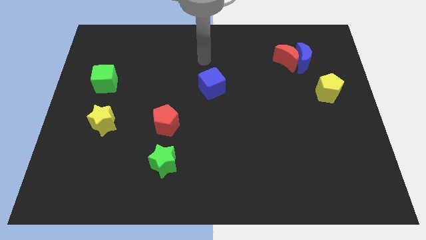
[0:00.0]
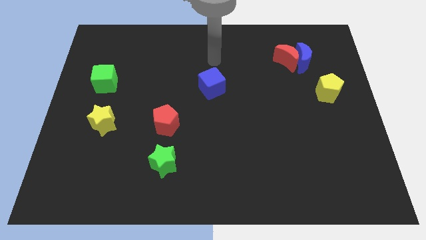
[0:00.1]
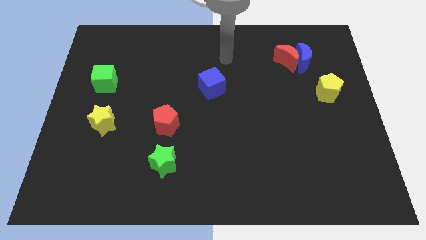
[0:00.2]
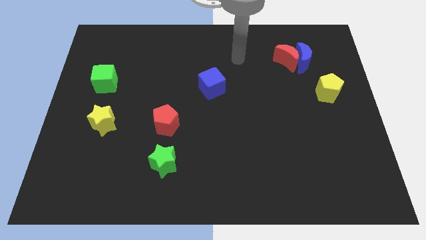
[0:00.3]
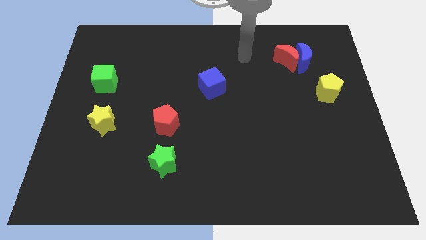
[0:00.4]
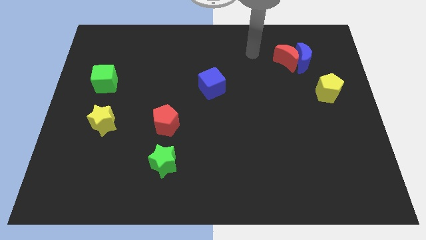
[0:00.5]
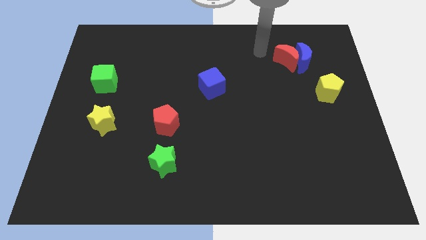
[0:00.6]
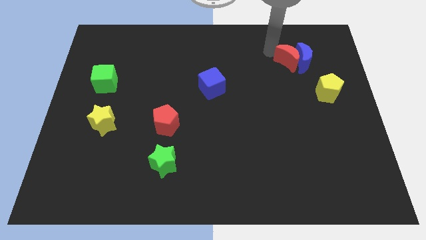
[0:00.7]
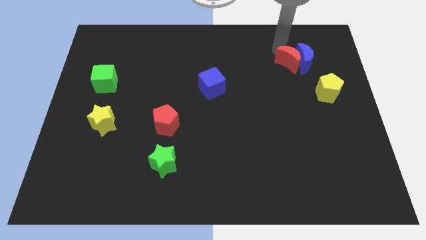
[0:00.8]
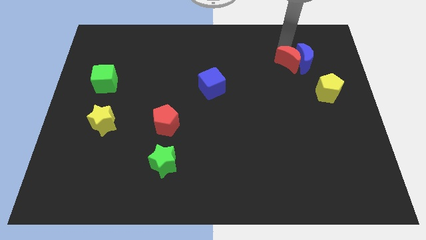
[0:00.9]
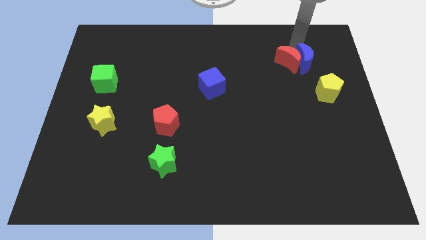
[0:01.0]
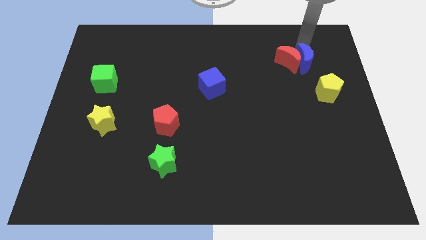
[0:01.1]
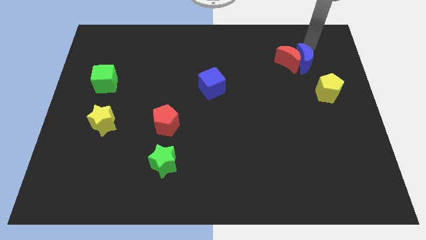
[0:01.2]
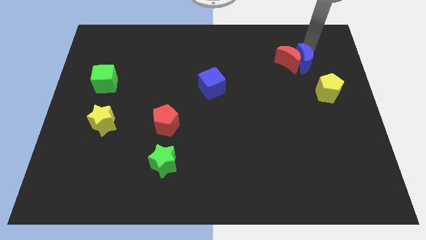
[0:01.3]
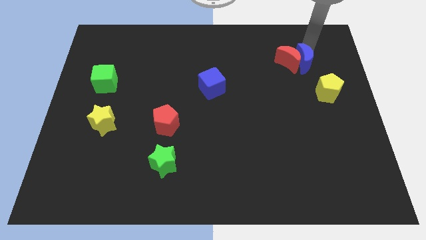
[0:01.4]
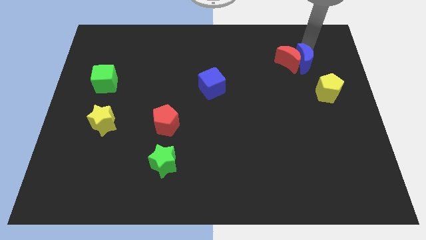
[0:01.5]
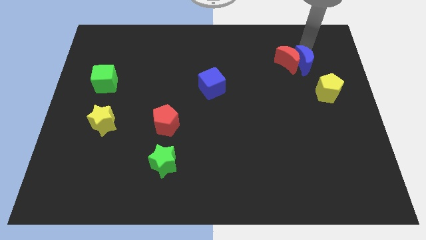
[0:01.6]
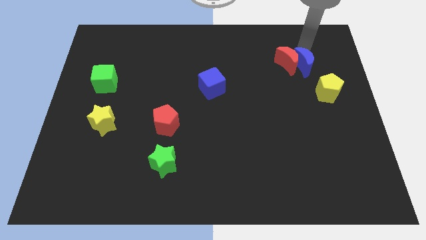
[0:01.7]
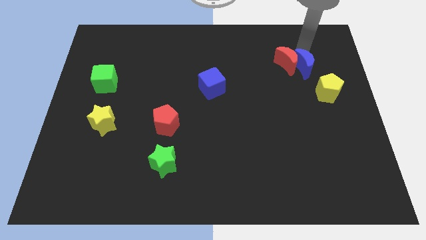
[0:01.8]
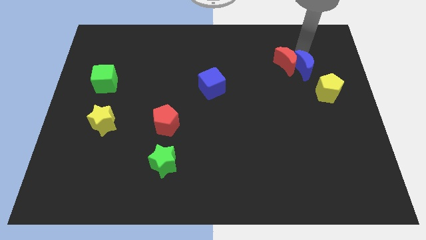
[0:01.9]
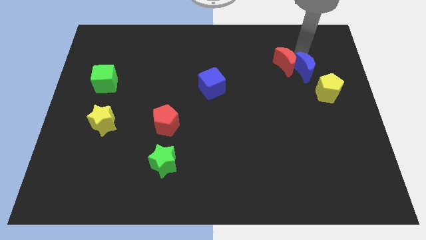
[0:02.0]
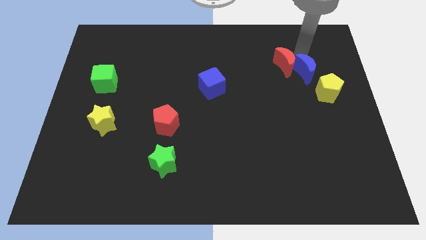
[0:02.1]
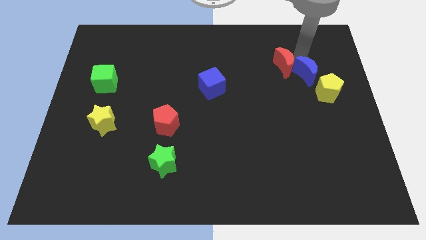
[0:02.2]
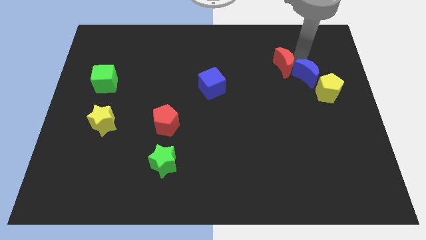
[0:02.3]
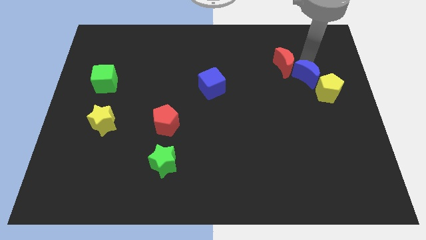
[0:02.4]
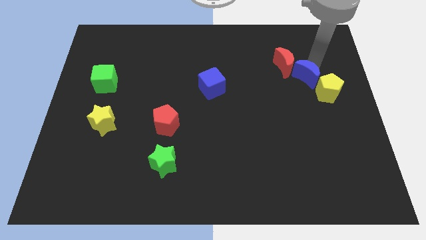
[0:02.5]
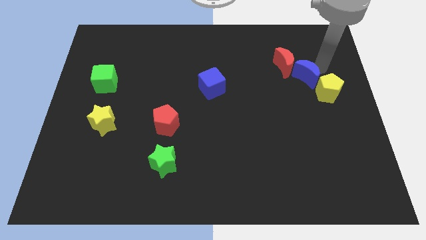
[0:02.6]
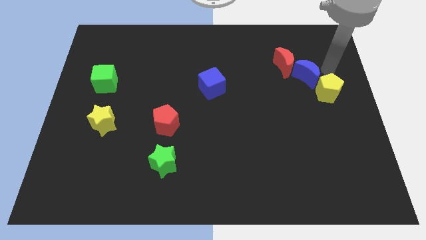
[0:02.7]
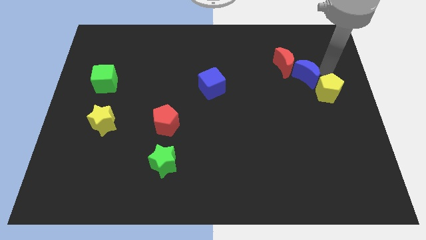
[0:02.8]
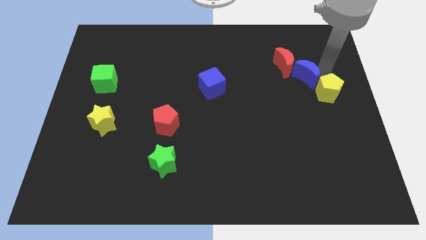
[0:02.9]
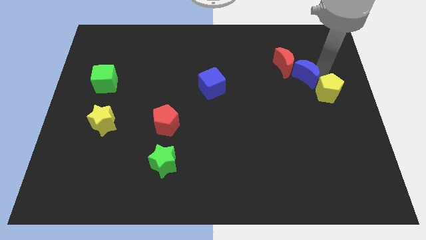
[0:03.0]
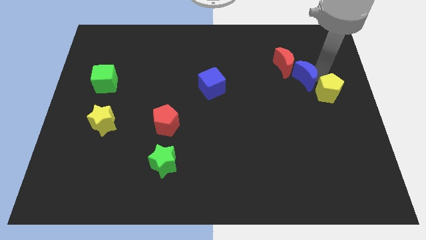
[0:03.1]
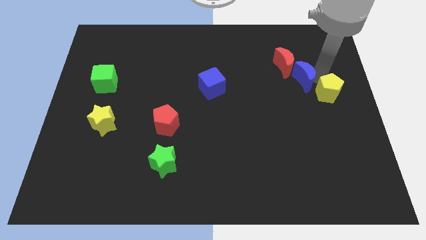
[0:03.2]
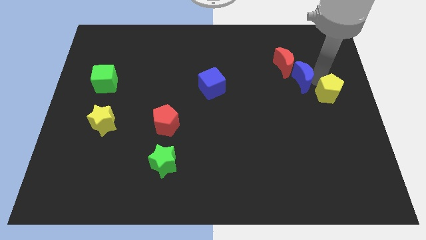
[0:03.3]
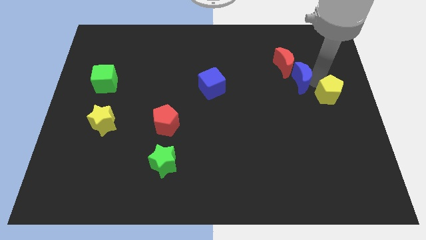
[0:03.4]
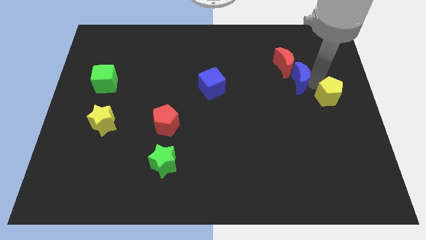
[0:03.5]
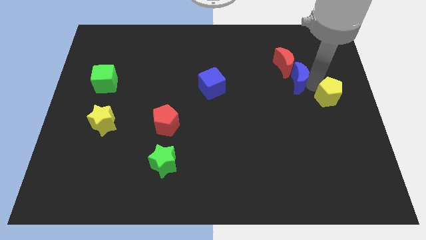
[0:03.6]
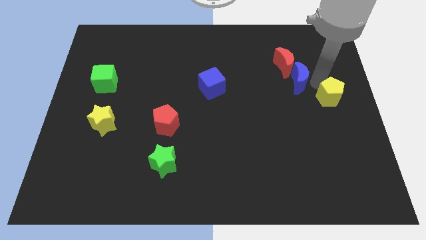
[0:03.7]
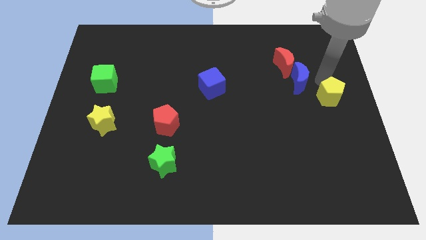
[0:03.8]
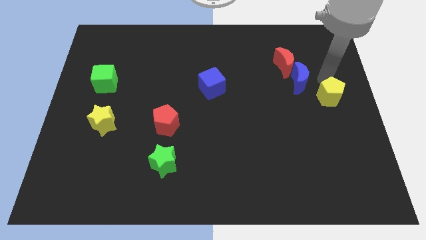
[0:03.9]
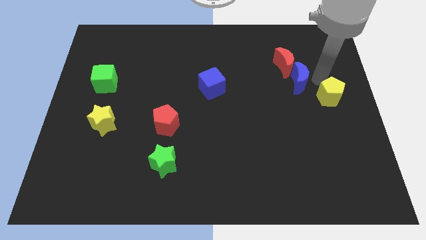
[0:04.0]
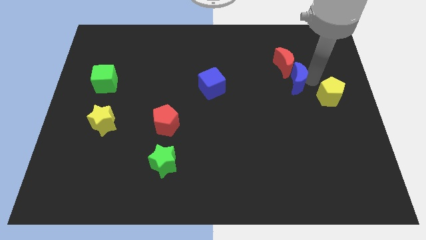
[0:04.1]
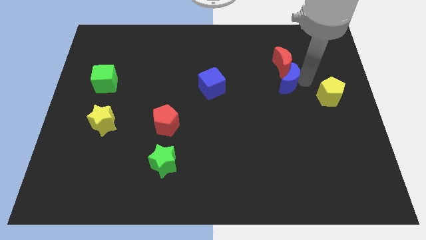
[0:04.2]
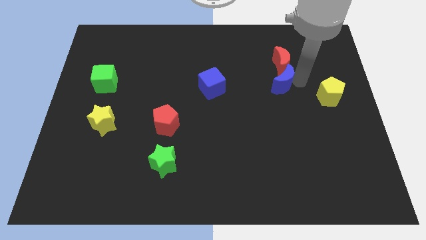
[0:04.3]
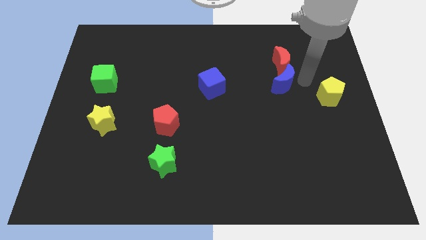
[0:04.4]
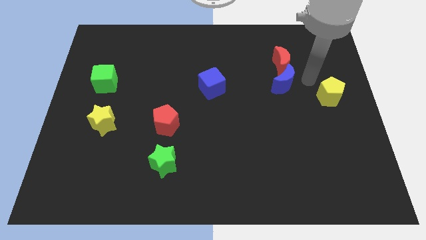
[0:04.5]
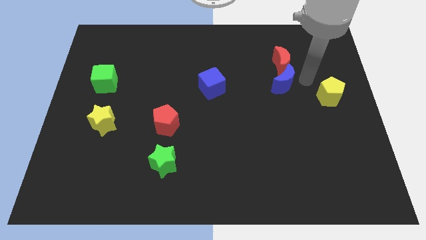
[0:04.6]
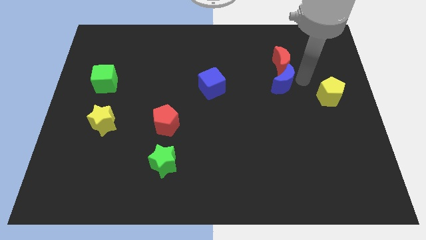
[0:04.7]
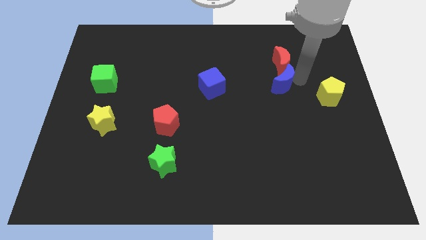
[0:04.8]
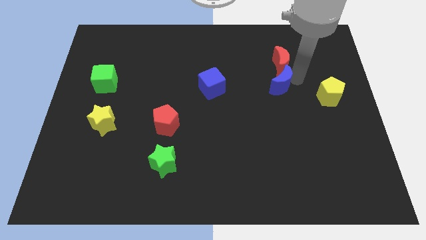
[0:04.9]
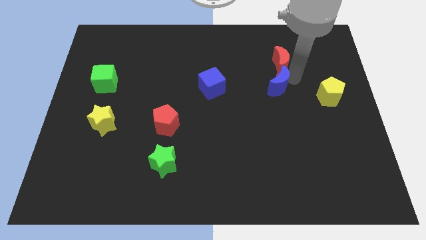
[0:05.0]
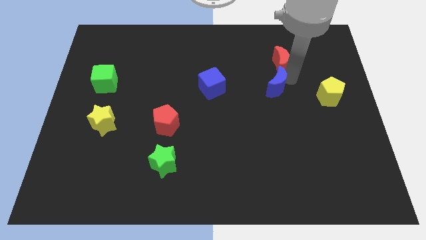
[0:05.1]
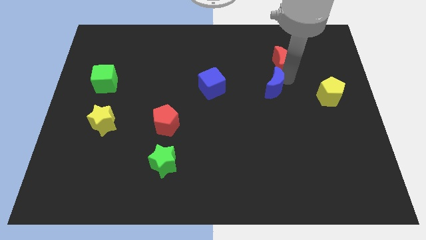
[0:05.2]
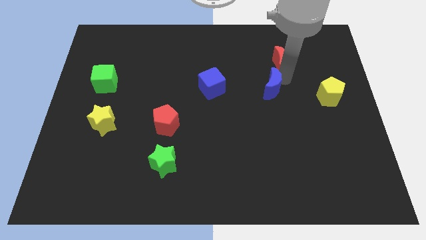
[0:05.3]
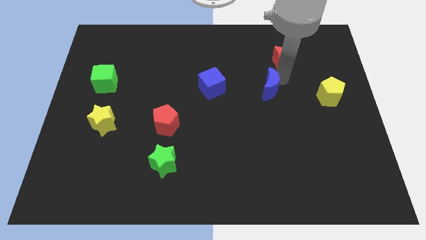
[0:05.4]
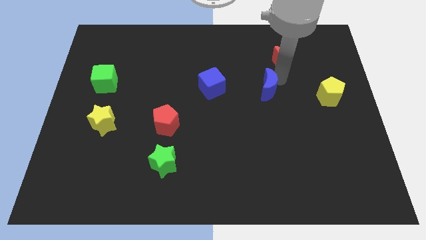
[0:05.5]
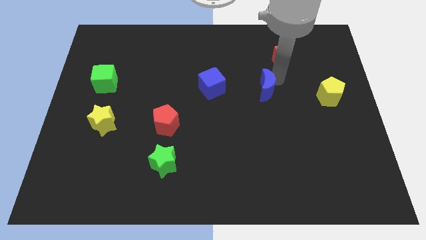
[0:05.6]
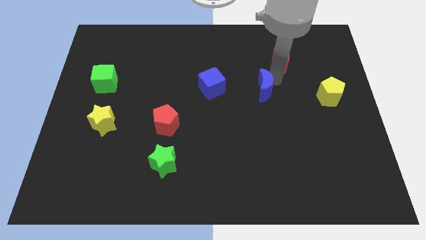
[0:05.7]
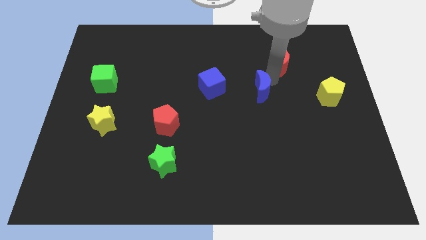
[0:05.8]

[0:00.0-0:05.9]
slide the blue moon to the center of the board

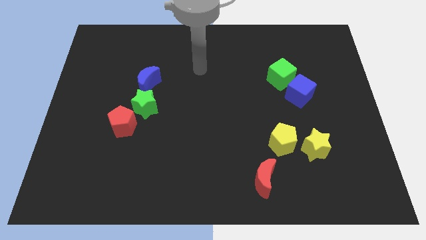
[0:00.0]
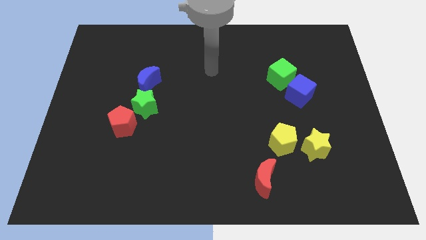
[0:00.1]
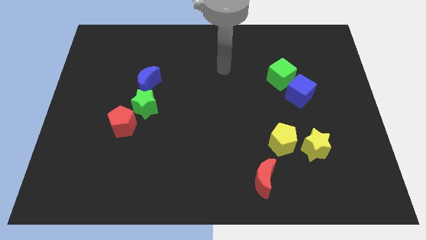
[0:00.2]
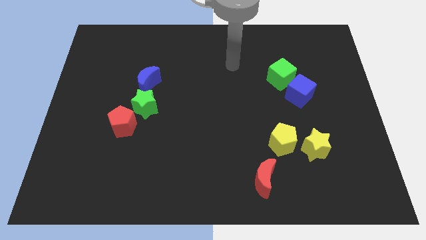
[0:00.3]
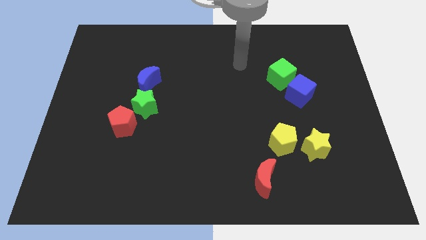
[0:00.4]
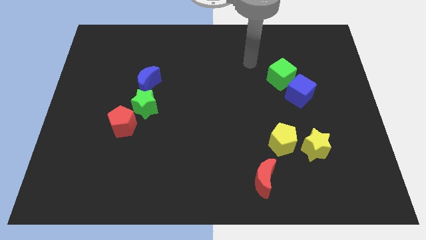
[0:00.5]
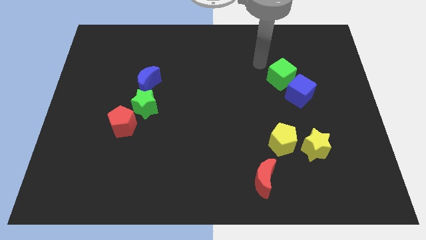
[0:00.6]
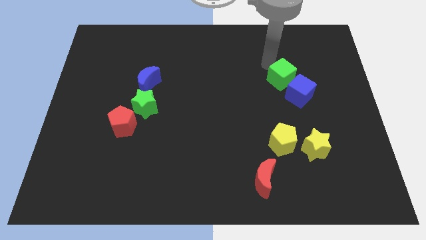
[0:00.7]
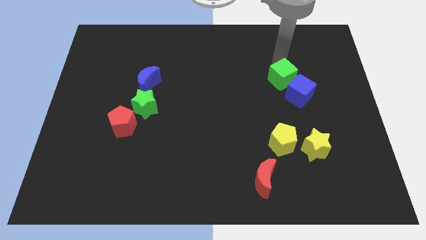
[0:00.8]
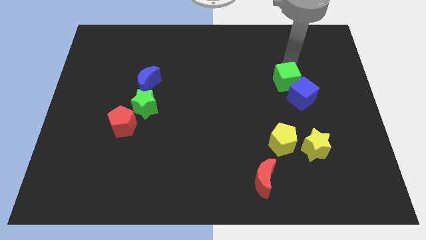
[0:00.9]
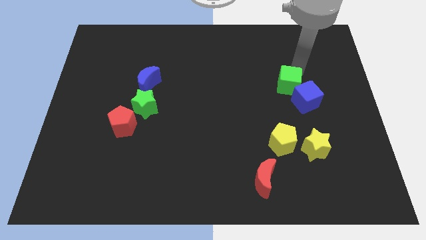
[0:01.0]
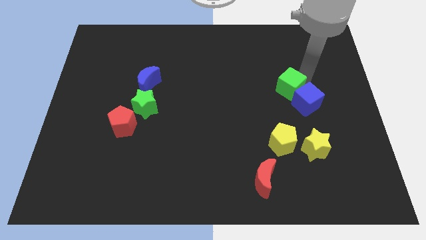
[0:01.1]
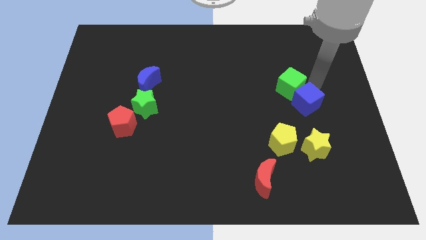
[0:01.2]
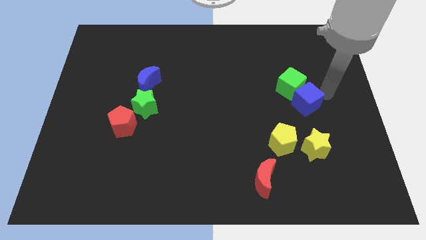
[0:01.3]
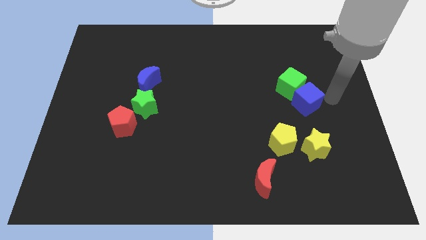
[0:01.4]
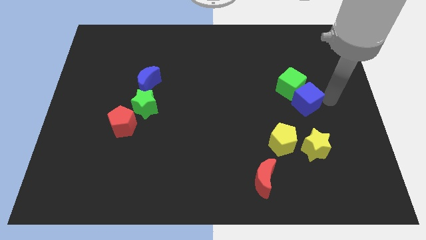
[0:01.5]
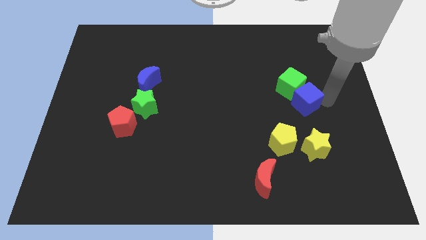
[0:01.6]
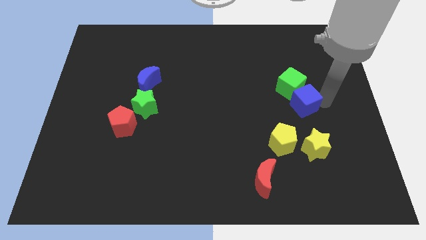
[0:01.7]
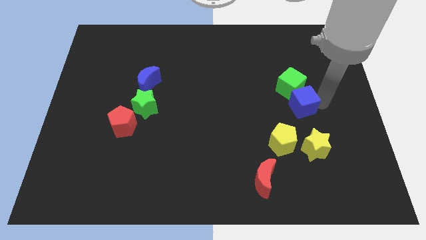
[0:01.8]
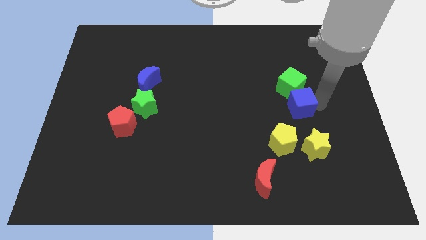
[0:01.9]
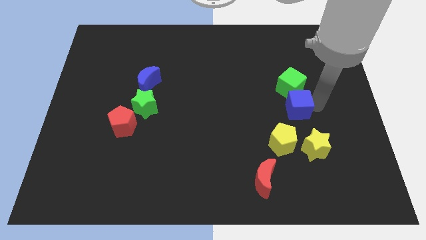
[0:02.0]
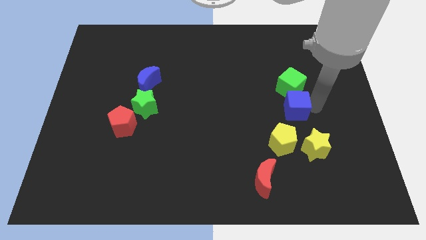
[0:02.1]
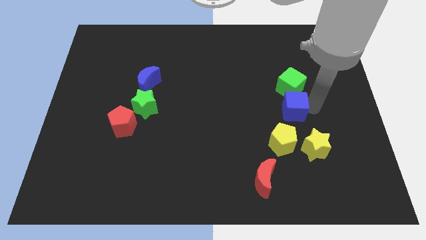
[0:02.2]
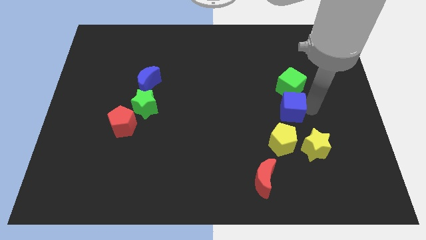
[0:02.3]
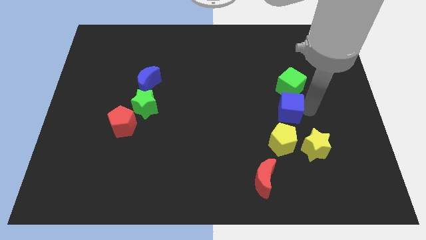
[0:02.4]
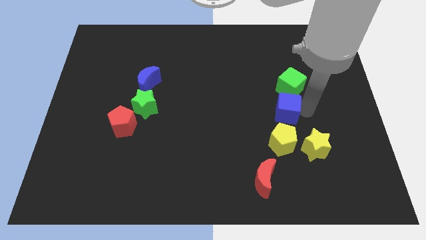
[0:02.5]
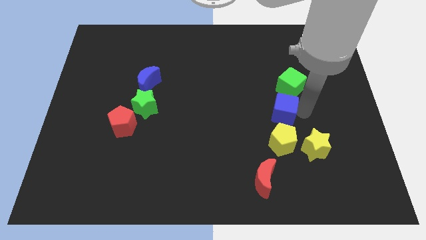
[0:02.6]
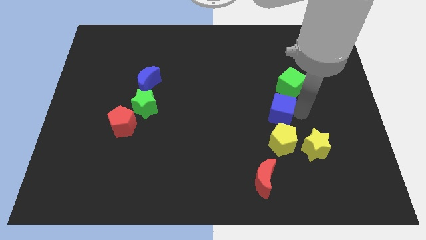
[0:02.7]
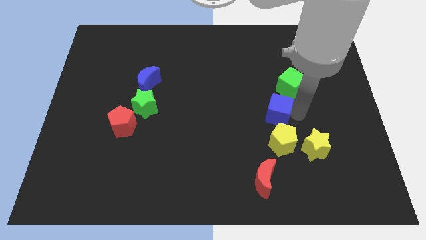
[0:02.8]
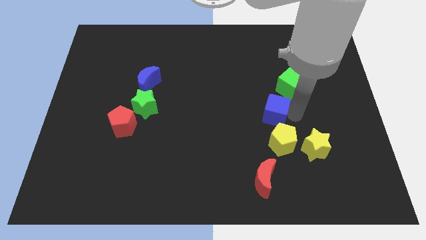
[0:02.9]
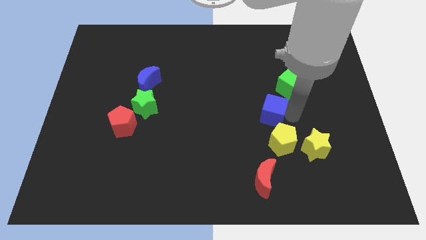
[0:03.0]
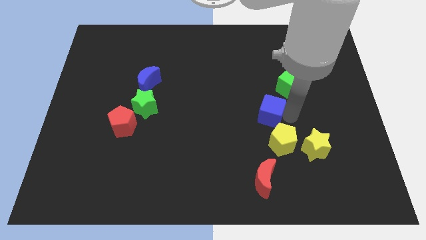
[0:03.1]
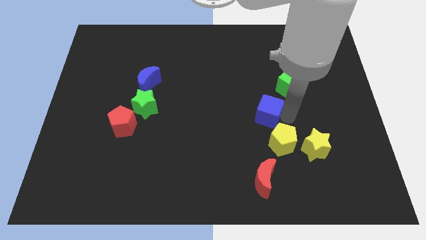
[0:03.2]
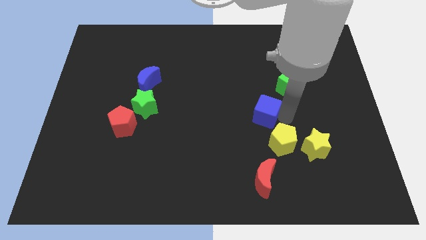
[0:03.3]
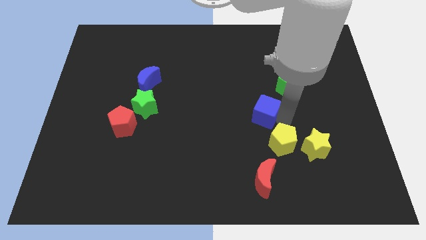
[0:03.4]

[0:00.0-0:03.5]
move the blue cube to the center of the board
